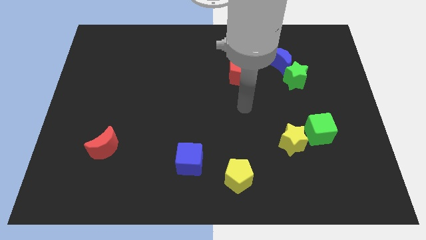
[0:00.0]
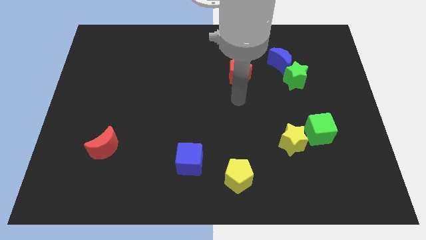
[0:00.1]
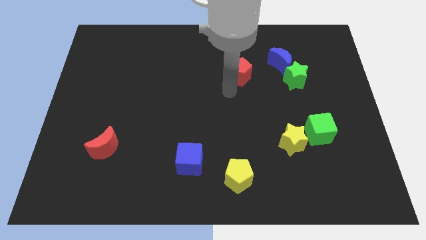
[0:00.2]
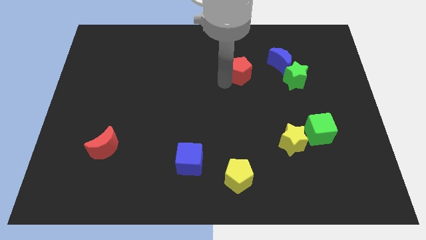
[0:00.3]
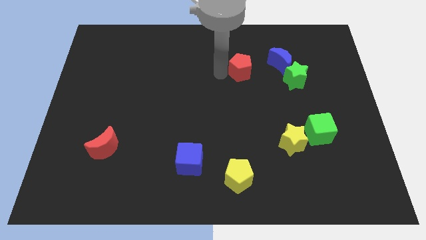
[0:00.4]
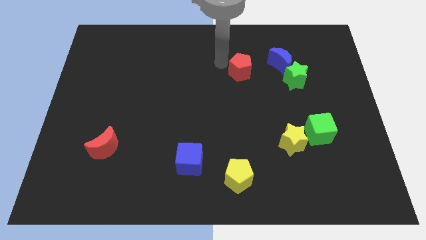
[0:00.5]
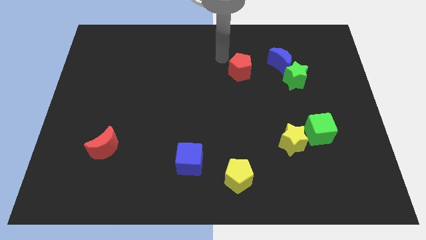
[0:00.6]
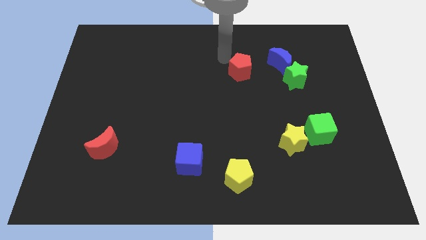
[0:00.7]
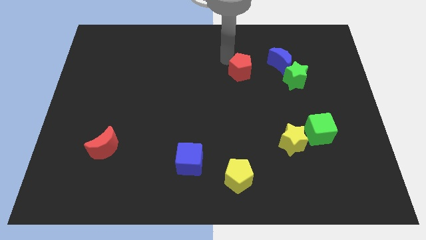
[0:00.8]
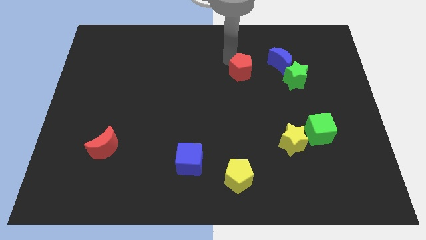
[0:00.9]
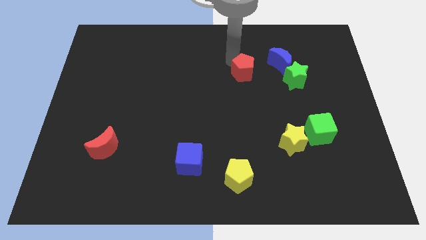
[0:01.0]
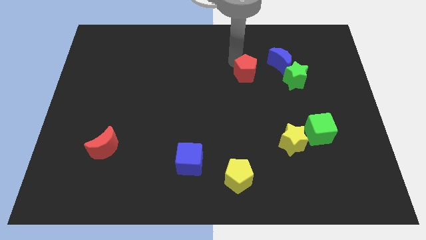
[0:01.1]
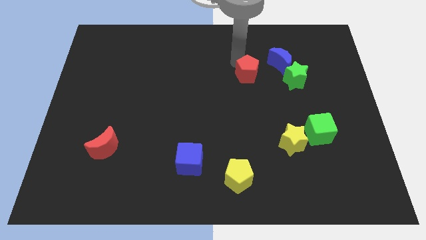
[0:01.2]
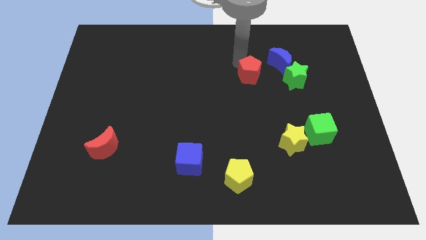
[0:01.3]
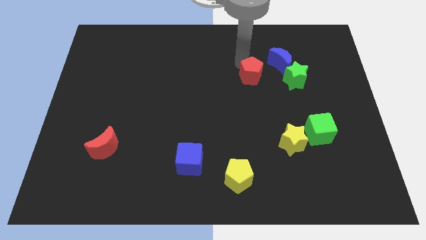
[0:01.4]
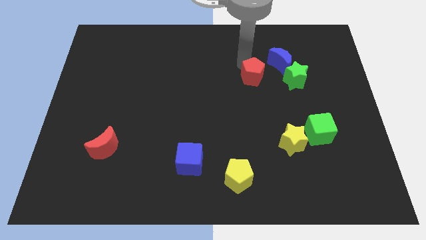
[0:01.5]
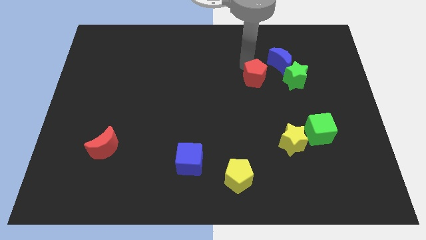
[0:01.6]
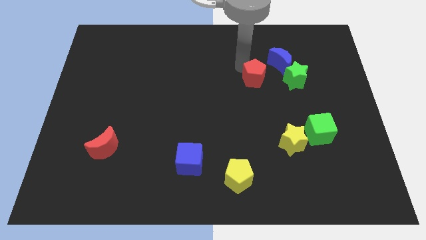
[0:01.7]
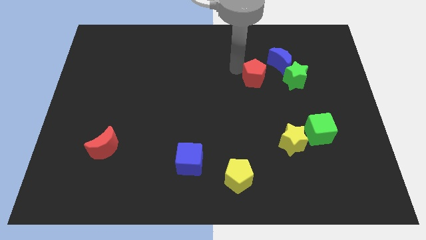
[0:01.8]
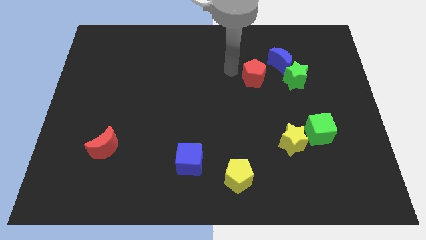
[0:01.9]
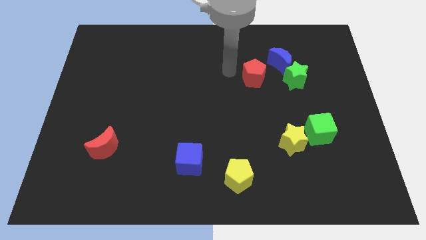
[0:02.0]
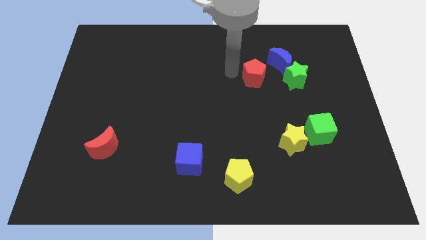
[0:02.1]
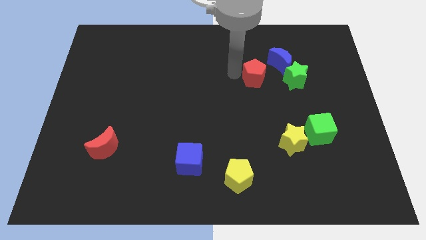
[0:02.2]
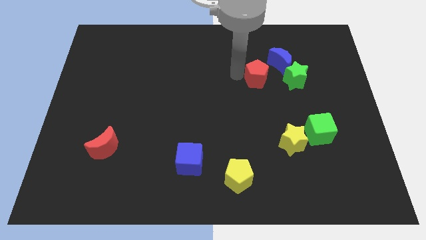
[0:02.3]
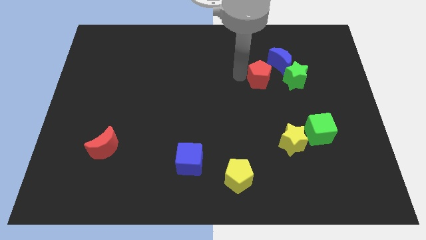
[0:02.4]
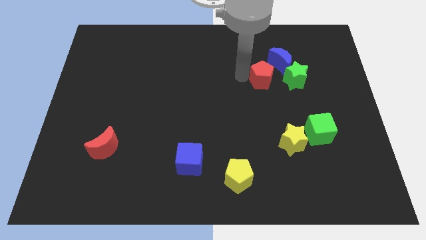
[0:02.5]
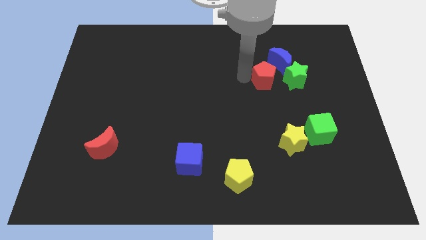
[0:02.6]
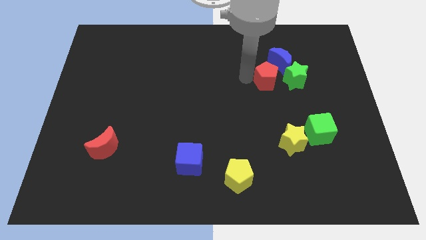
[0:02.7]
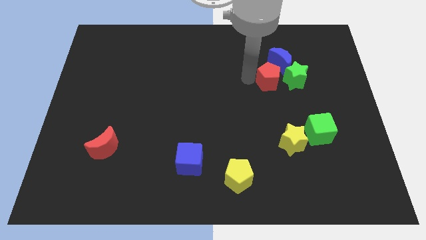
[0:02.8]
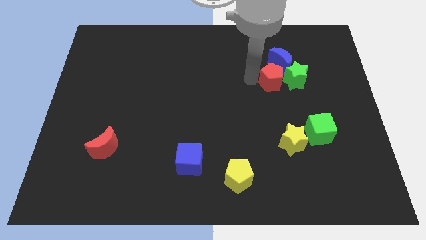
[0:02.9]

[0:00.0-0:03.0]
push the red pentagon close to the green star

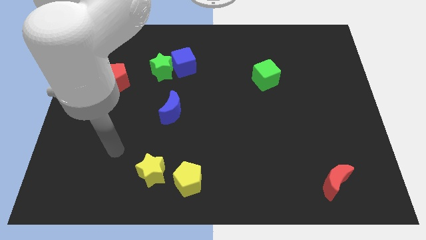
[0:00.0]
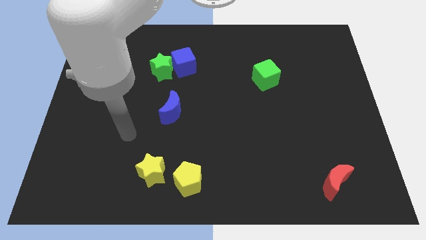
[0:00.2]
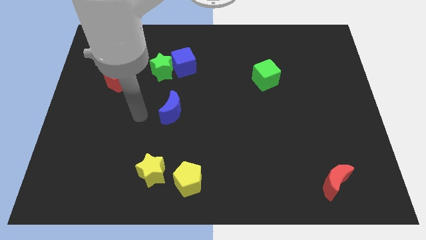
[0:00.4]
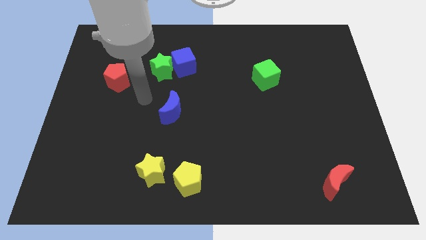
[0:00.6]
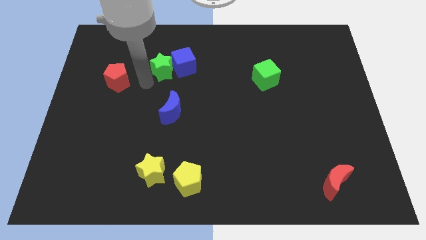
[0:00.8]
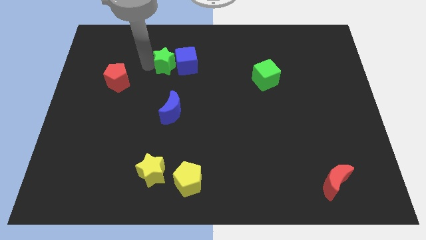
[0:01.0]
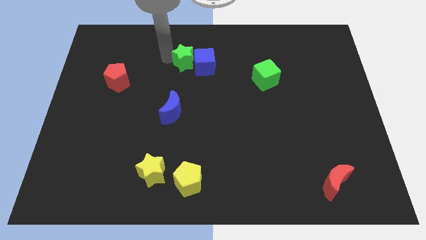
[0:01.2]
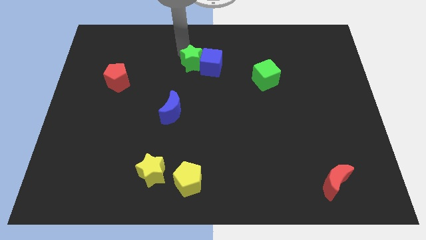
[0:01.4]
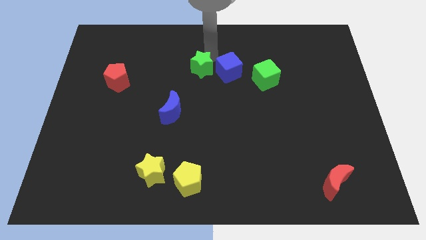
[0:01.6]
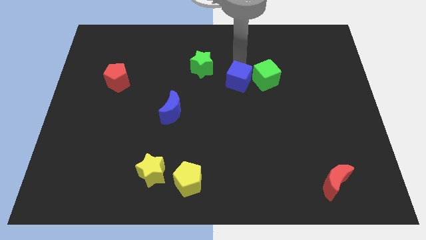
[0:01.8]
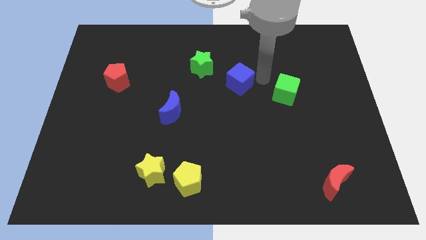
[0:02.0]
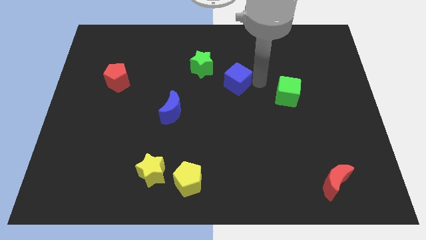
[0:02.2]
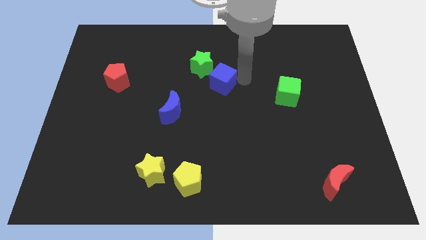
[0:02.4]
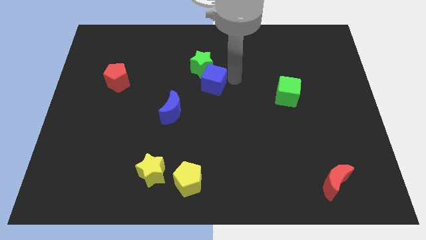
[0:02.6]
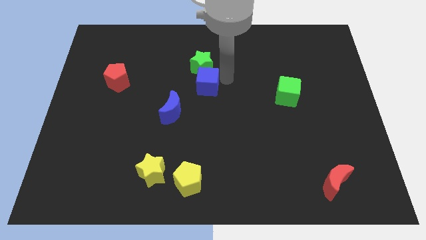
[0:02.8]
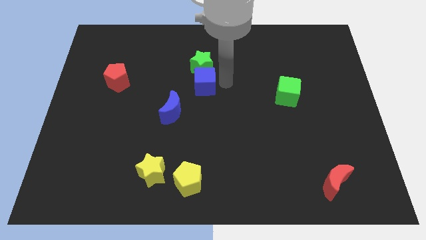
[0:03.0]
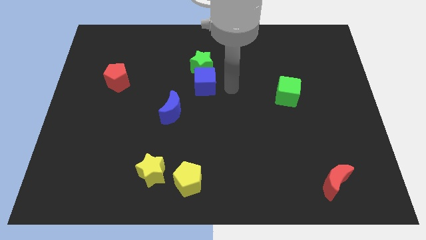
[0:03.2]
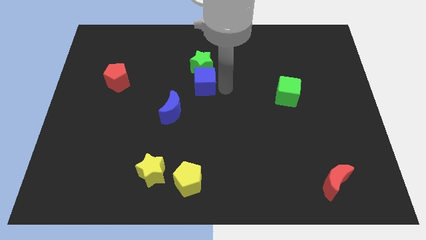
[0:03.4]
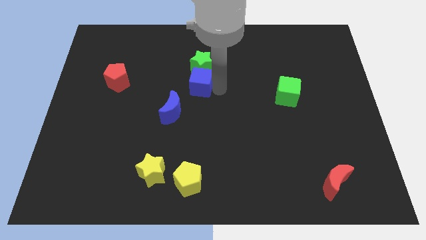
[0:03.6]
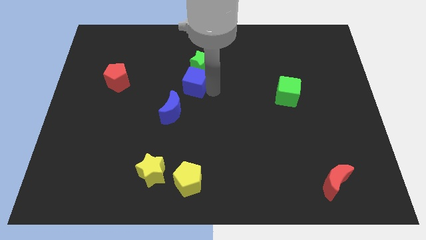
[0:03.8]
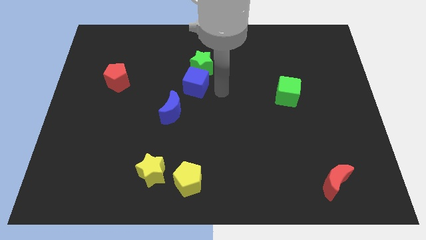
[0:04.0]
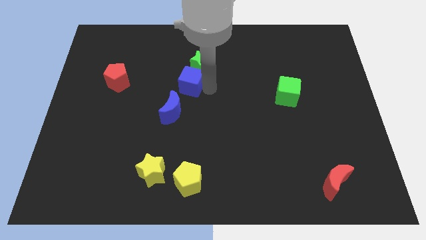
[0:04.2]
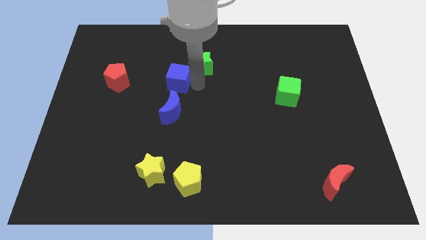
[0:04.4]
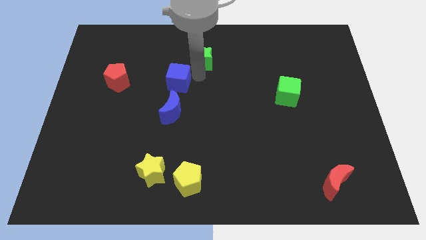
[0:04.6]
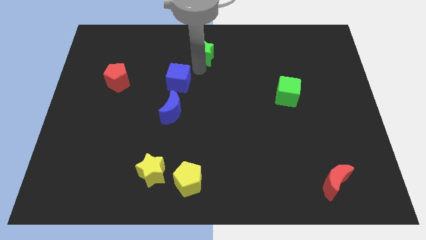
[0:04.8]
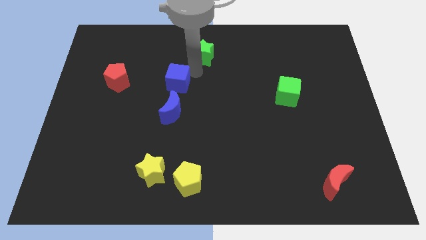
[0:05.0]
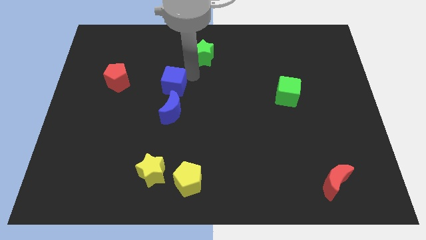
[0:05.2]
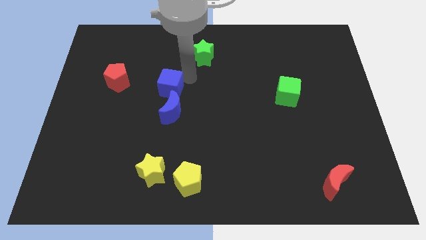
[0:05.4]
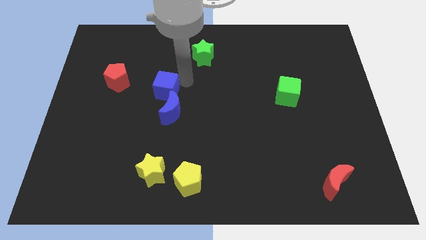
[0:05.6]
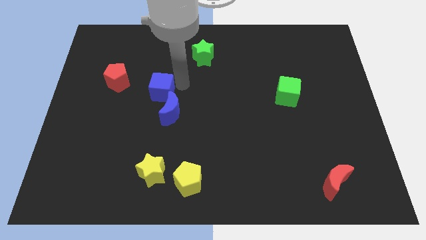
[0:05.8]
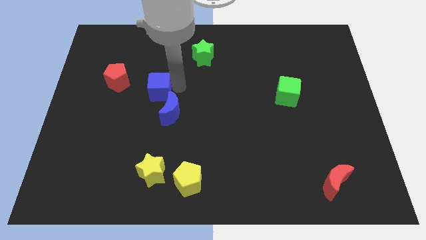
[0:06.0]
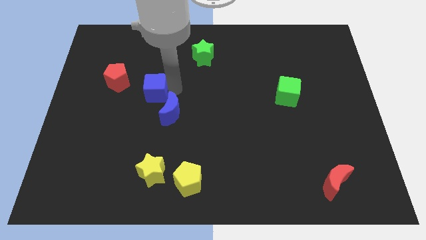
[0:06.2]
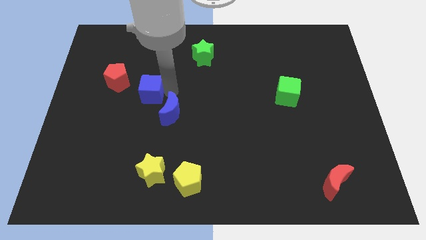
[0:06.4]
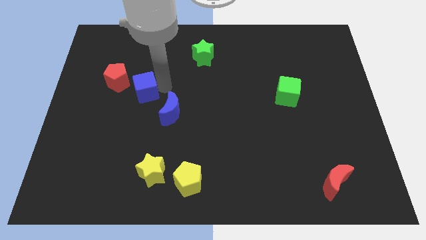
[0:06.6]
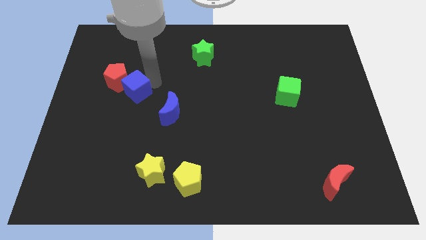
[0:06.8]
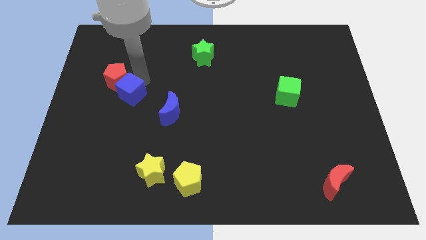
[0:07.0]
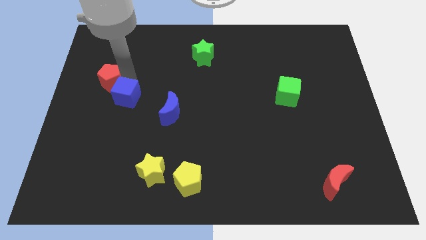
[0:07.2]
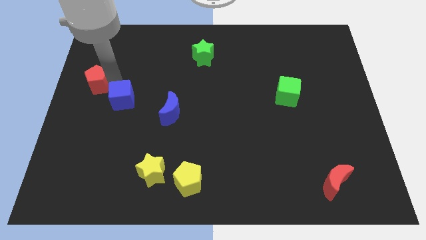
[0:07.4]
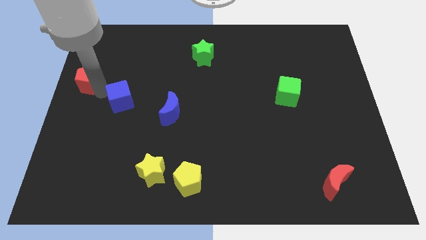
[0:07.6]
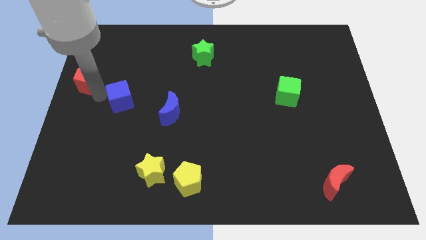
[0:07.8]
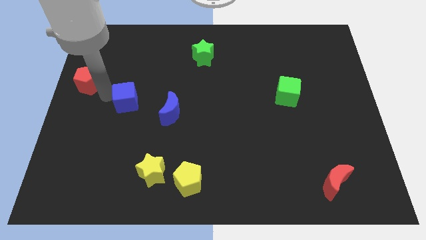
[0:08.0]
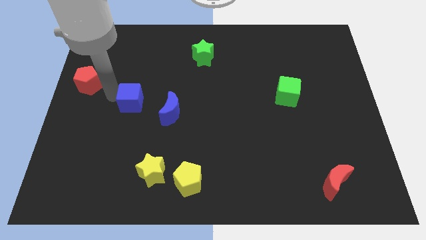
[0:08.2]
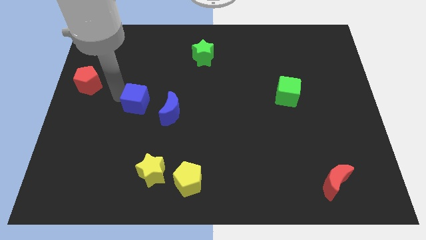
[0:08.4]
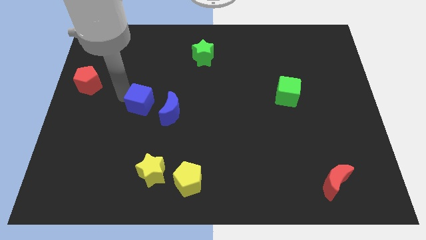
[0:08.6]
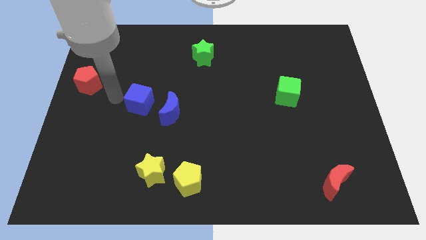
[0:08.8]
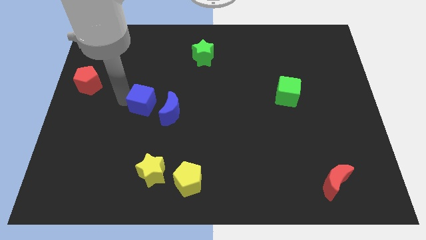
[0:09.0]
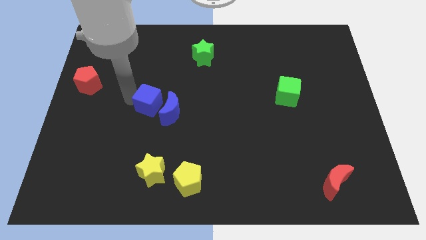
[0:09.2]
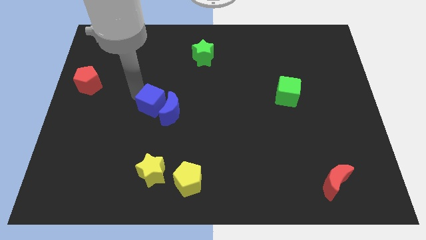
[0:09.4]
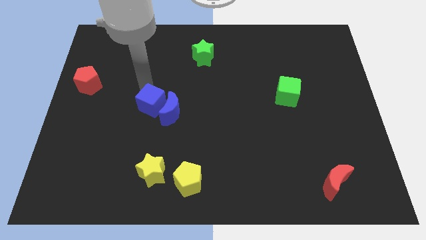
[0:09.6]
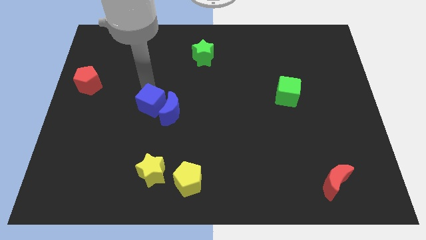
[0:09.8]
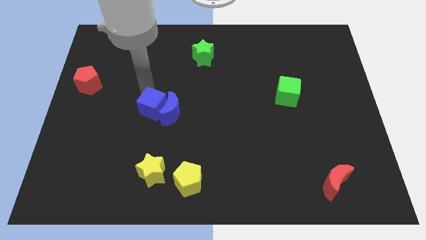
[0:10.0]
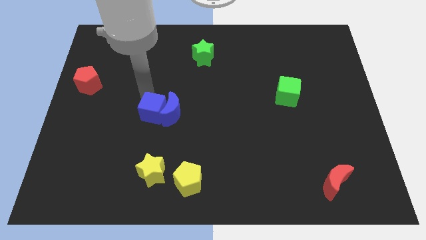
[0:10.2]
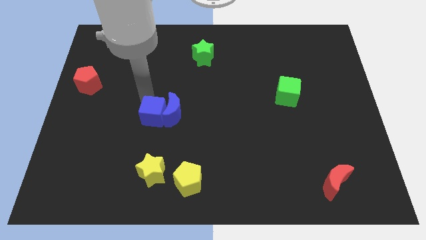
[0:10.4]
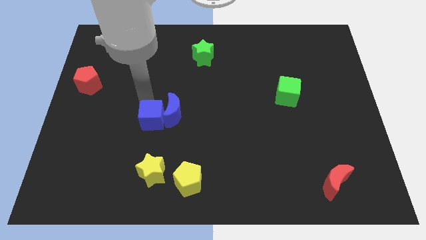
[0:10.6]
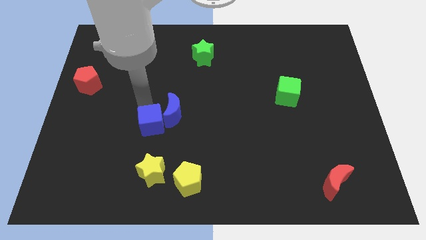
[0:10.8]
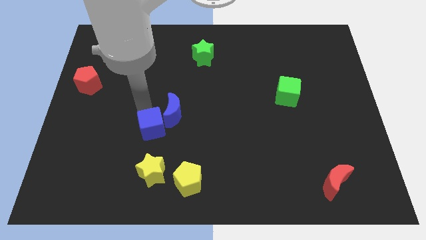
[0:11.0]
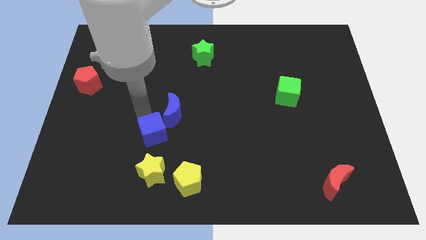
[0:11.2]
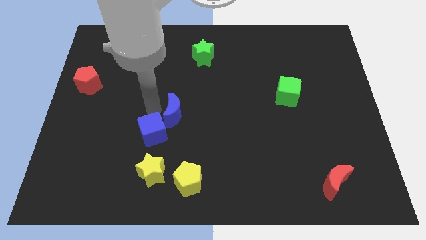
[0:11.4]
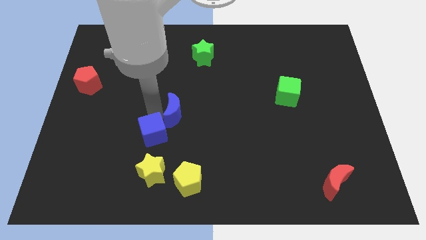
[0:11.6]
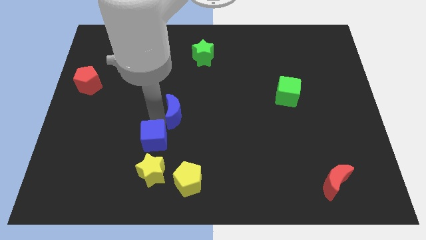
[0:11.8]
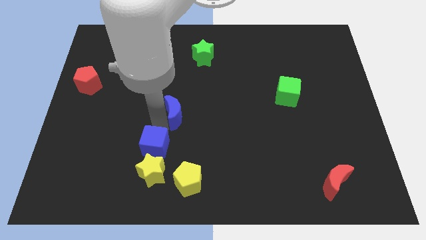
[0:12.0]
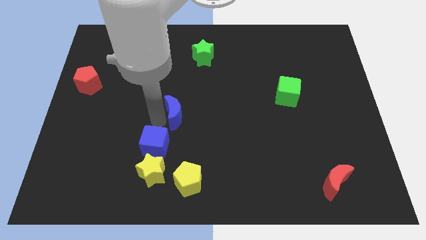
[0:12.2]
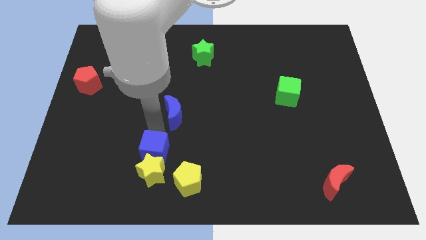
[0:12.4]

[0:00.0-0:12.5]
move the blue cube close to the yellow star
